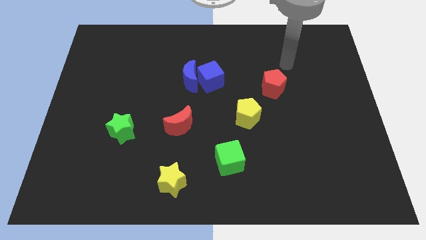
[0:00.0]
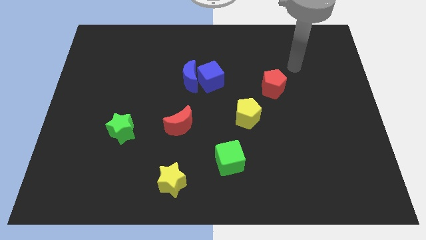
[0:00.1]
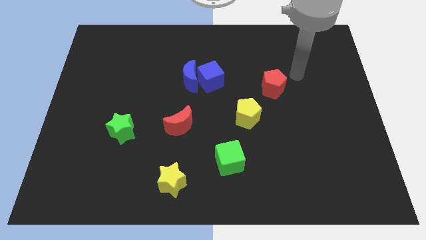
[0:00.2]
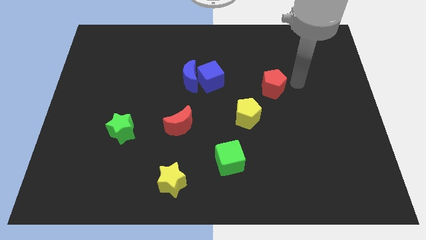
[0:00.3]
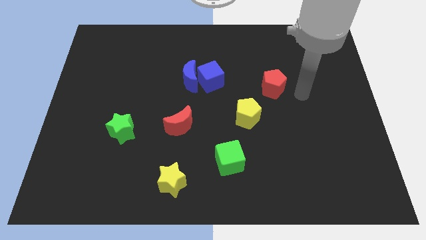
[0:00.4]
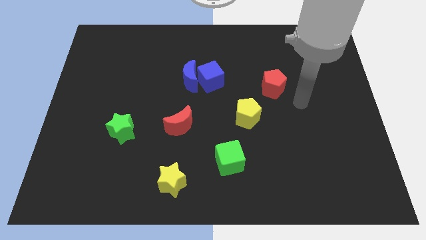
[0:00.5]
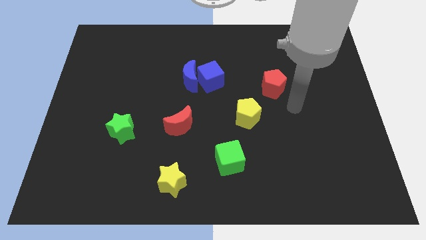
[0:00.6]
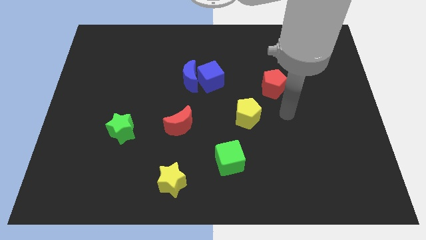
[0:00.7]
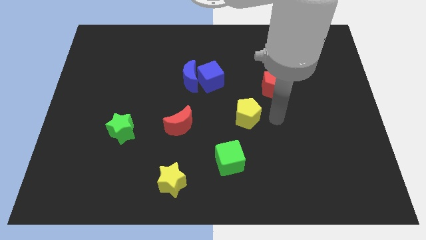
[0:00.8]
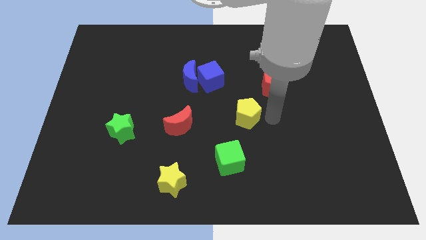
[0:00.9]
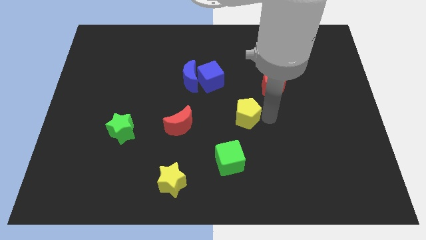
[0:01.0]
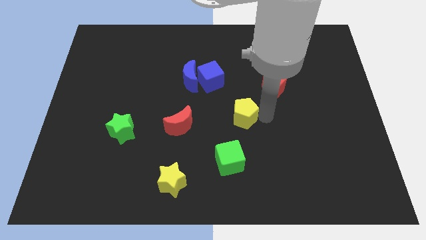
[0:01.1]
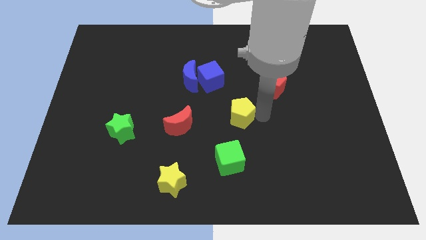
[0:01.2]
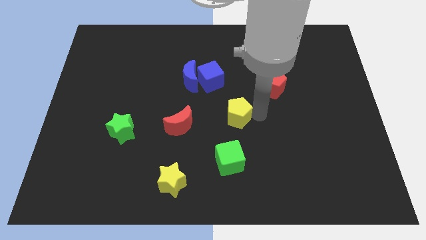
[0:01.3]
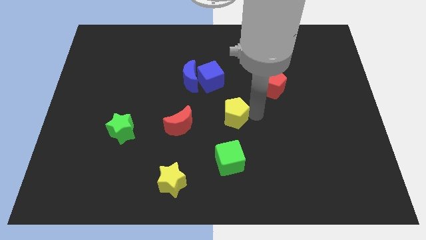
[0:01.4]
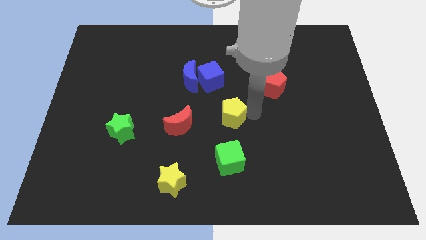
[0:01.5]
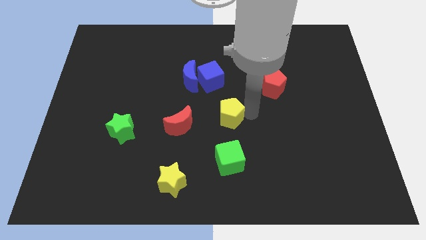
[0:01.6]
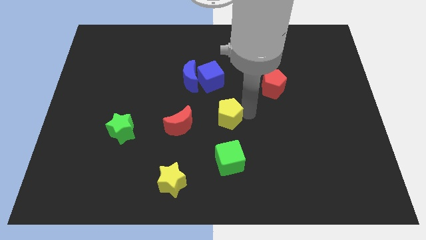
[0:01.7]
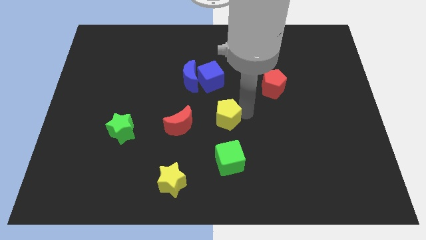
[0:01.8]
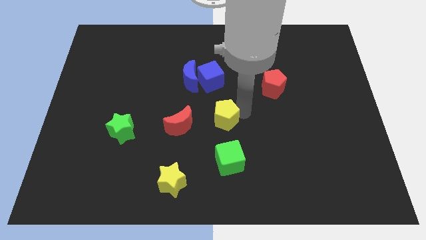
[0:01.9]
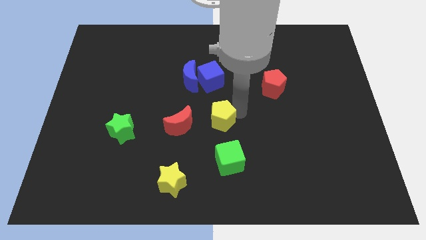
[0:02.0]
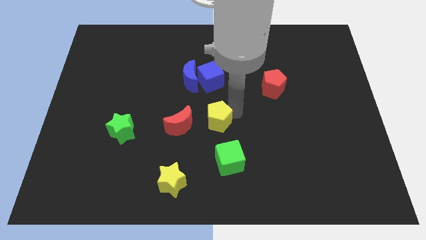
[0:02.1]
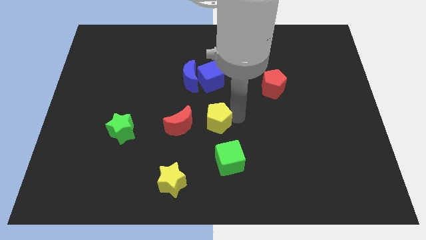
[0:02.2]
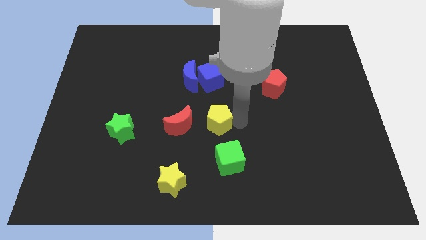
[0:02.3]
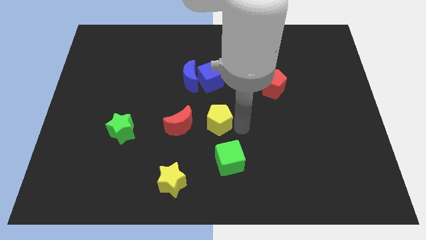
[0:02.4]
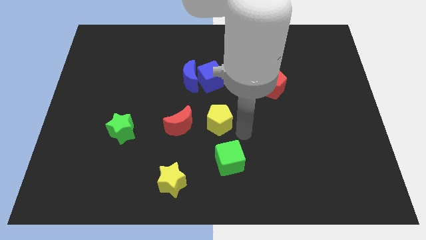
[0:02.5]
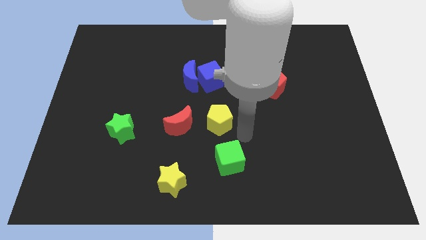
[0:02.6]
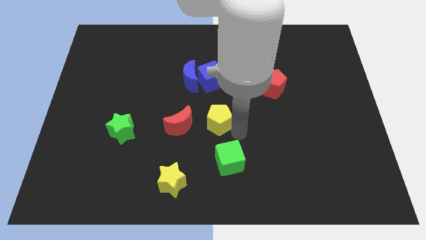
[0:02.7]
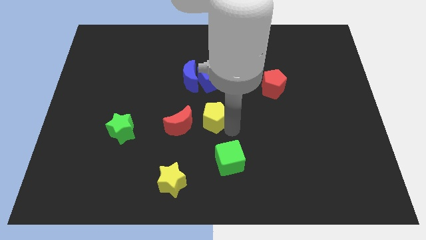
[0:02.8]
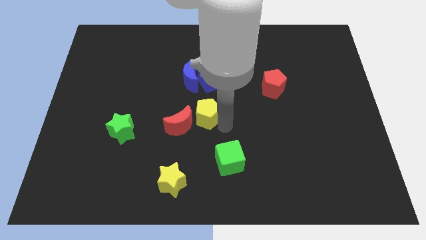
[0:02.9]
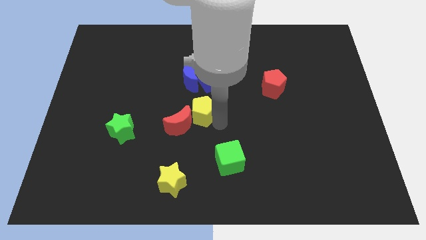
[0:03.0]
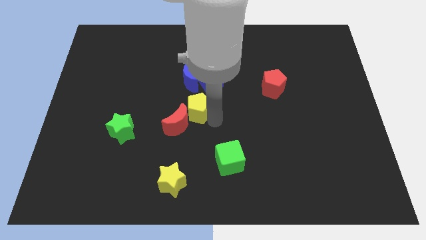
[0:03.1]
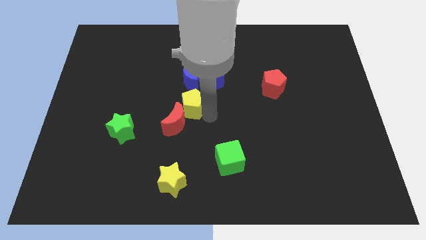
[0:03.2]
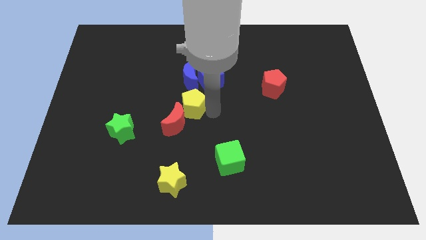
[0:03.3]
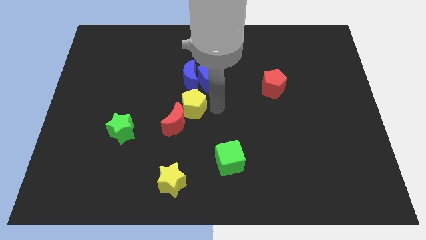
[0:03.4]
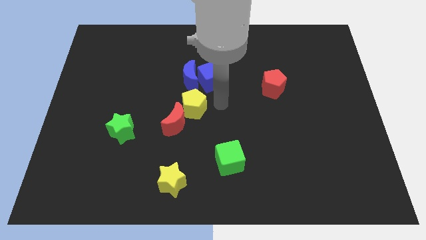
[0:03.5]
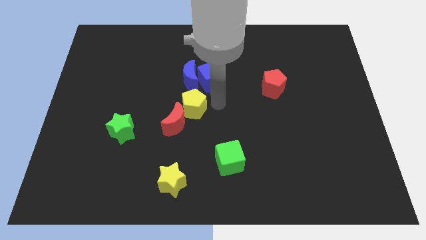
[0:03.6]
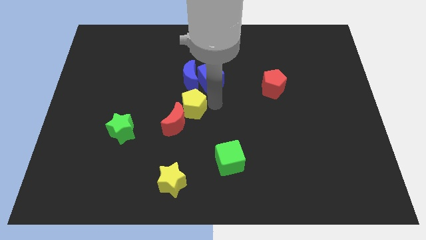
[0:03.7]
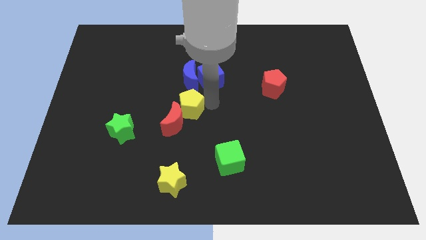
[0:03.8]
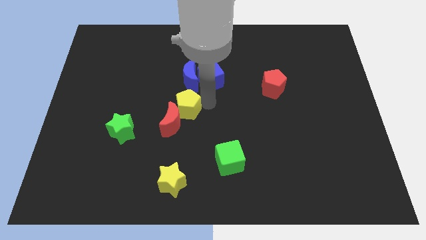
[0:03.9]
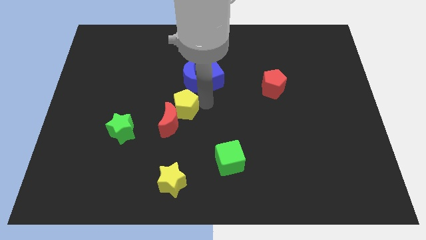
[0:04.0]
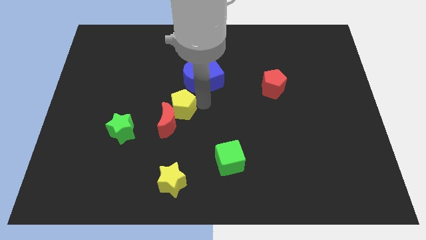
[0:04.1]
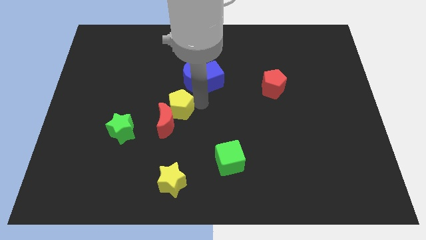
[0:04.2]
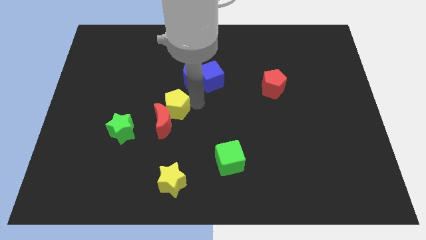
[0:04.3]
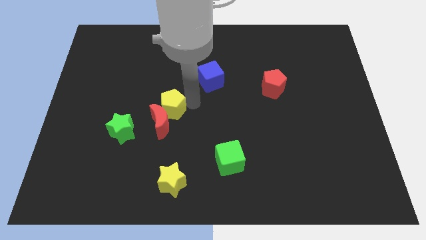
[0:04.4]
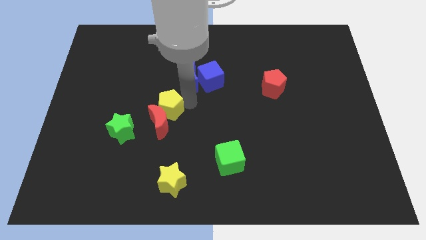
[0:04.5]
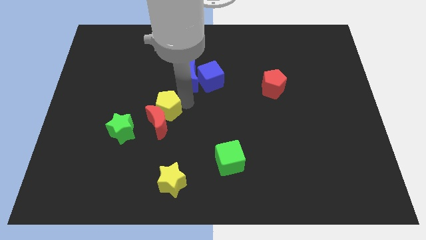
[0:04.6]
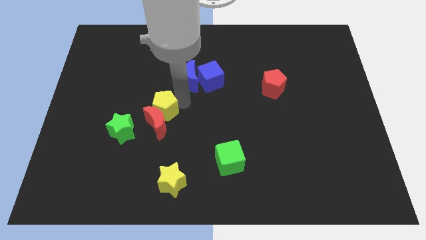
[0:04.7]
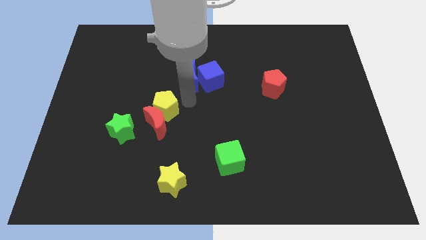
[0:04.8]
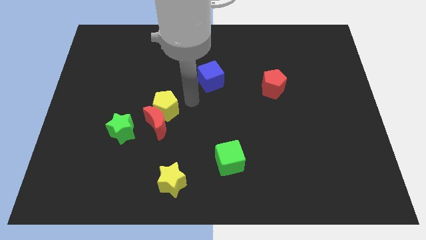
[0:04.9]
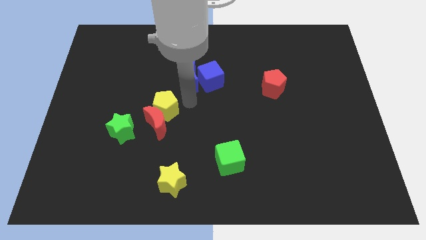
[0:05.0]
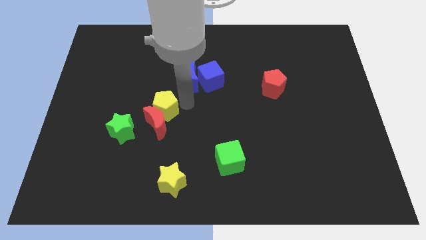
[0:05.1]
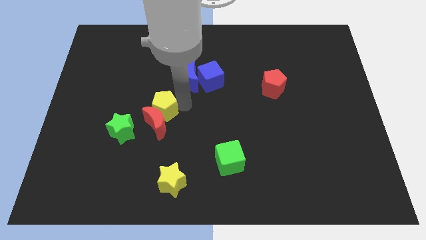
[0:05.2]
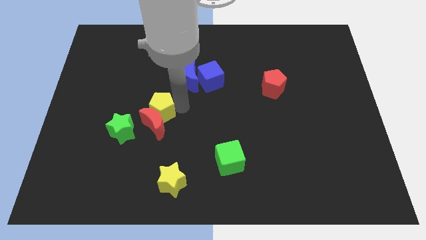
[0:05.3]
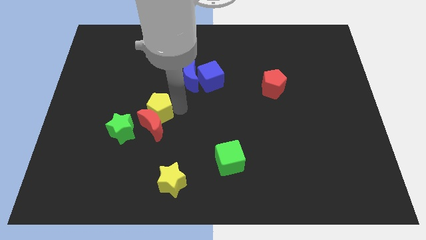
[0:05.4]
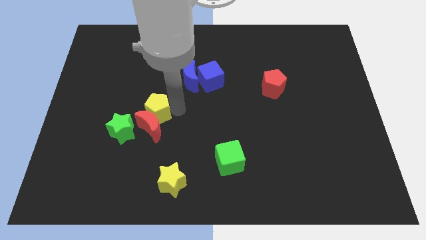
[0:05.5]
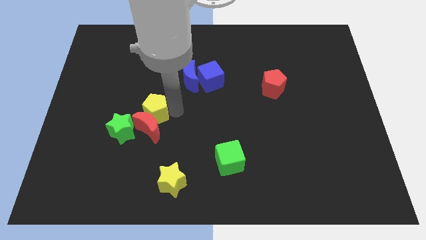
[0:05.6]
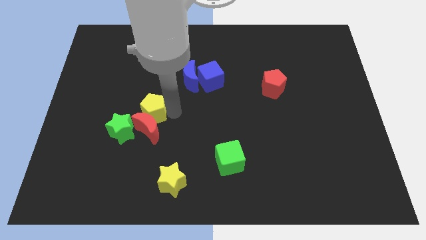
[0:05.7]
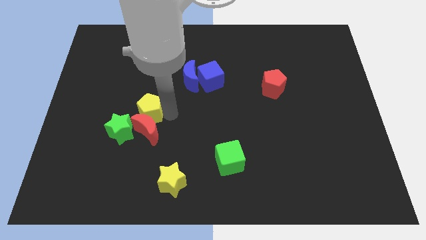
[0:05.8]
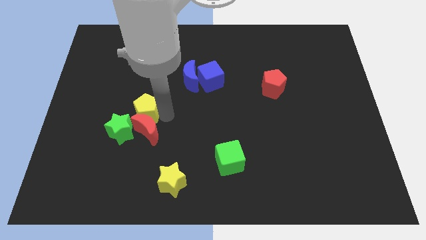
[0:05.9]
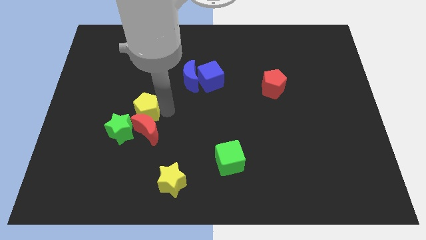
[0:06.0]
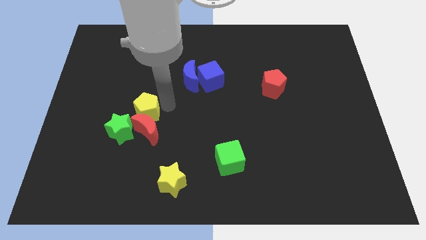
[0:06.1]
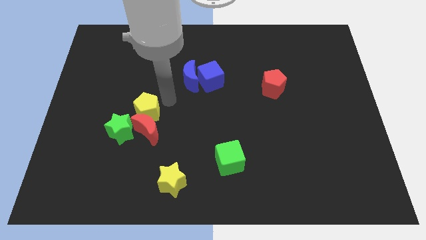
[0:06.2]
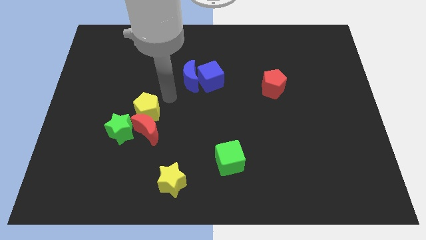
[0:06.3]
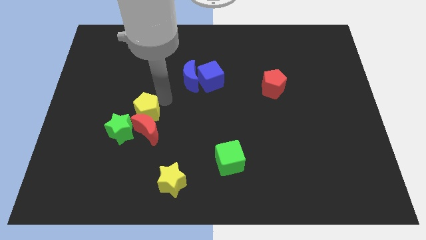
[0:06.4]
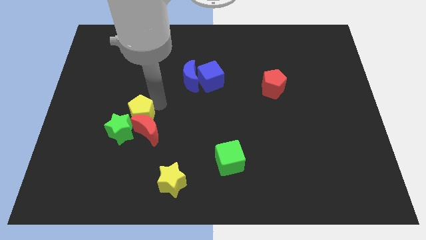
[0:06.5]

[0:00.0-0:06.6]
slide the yellow pentagon next to the green star
